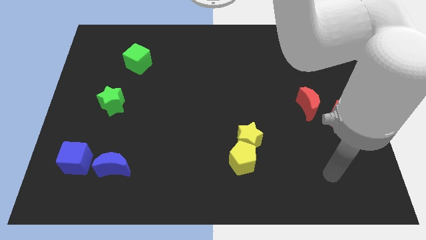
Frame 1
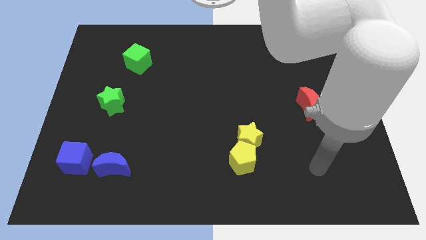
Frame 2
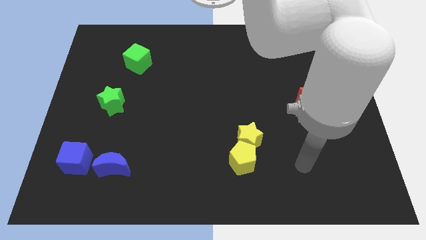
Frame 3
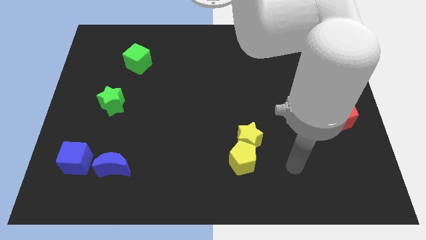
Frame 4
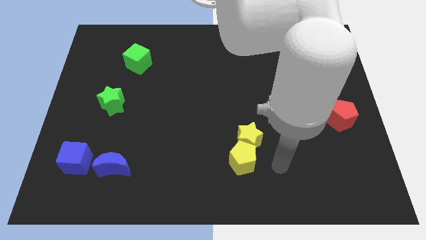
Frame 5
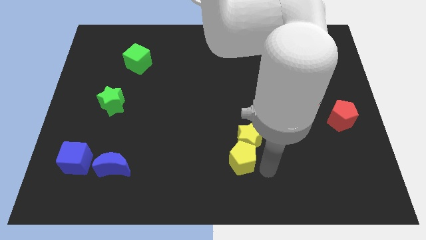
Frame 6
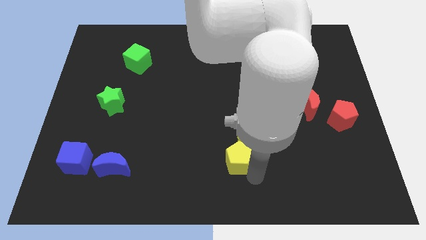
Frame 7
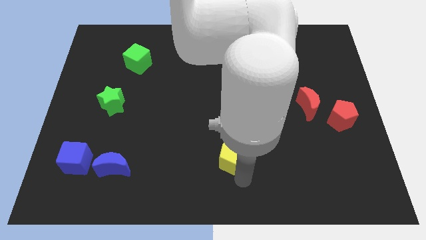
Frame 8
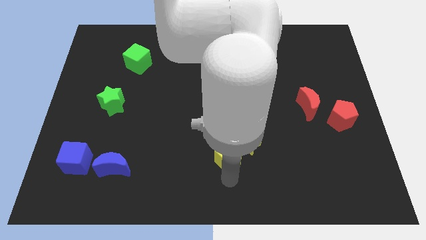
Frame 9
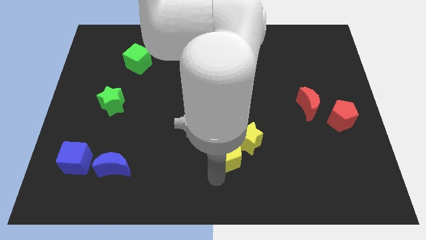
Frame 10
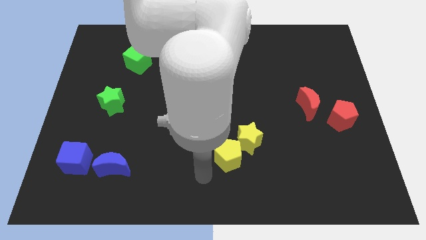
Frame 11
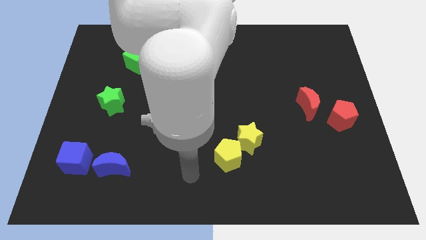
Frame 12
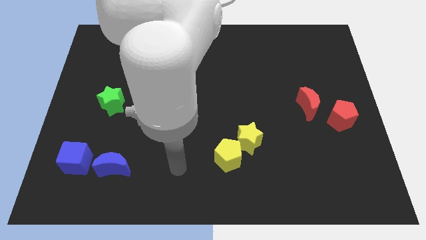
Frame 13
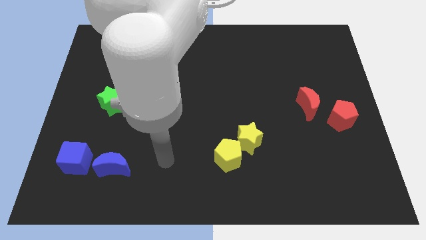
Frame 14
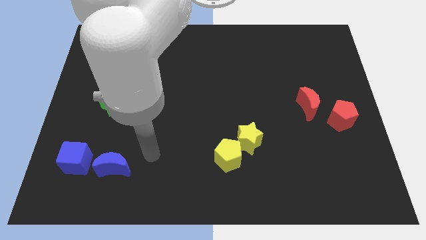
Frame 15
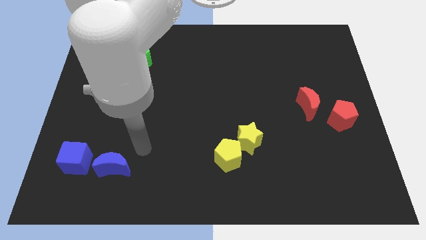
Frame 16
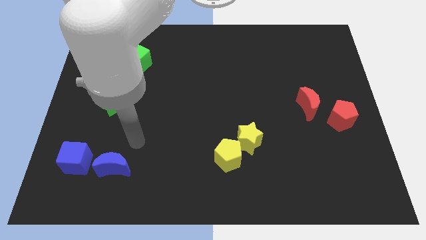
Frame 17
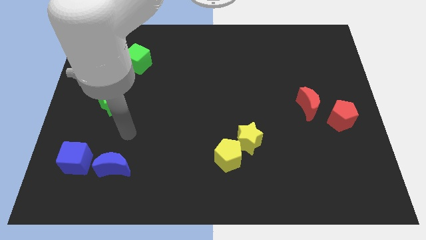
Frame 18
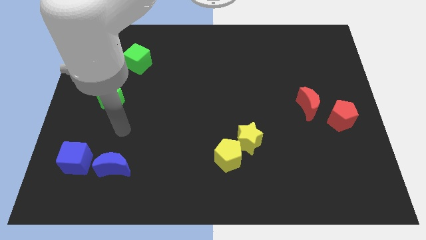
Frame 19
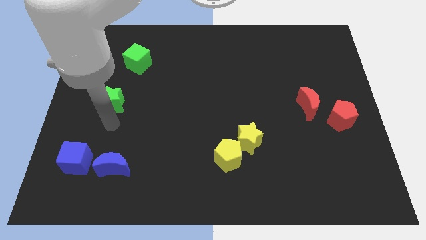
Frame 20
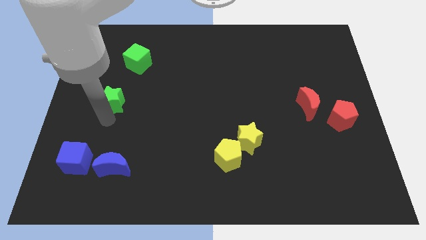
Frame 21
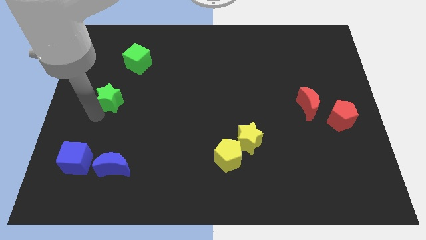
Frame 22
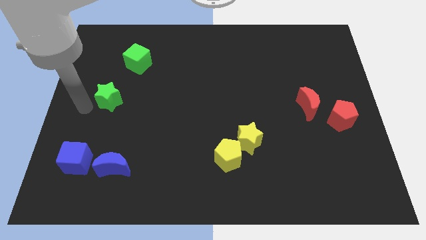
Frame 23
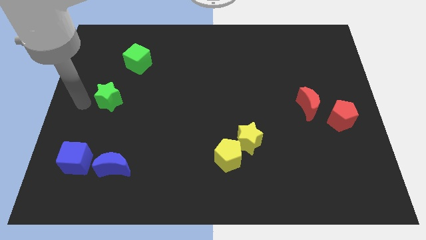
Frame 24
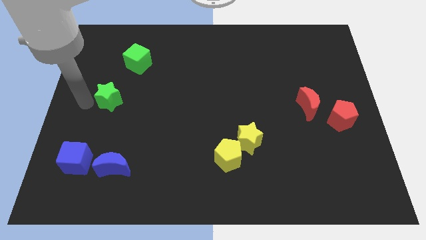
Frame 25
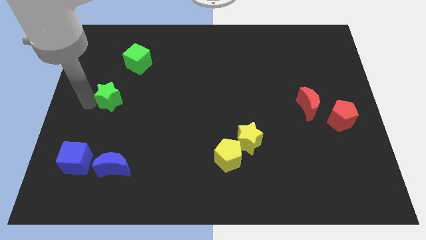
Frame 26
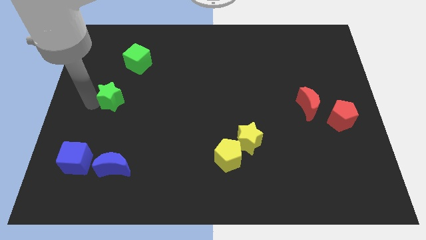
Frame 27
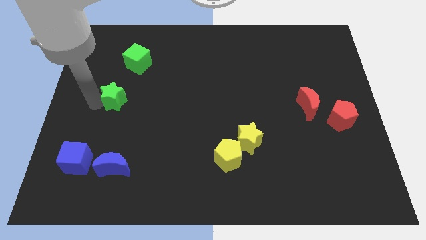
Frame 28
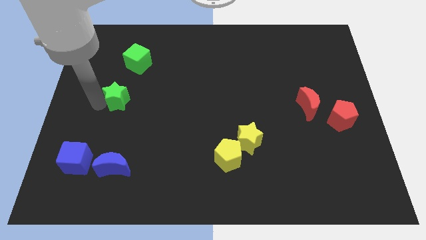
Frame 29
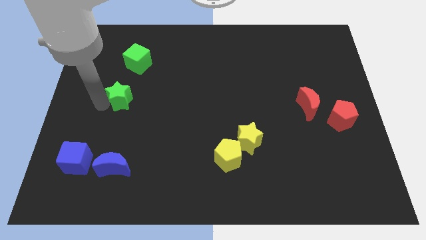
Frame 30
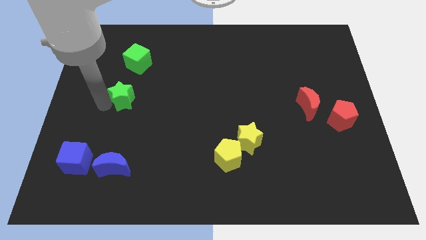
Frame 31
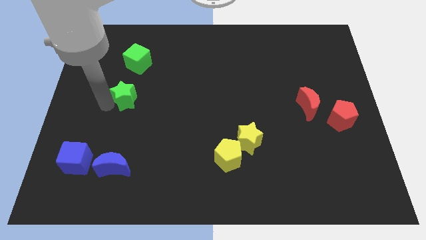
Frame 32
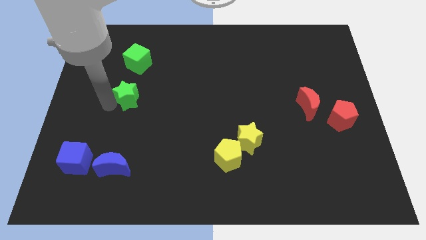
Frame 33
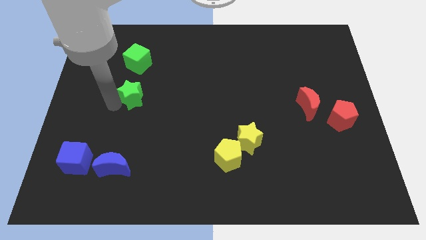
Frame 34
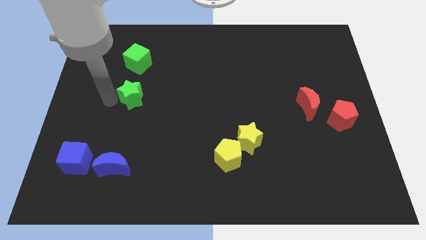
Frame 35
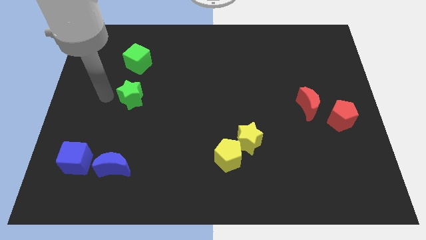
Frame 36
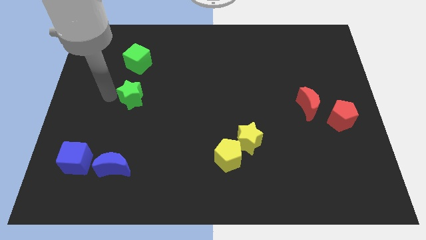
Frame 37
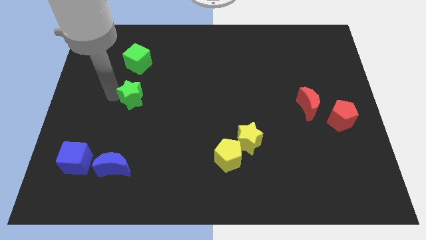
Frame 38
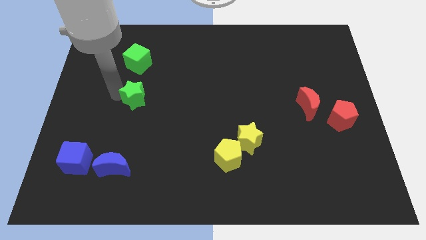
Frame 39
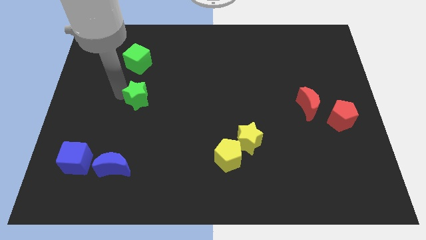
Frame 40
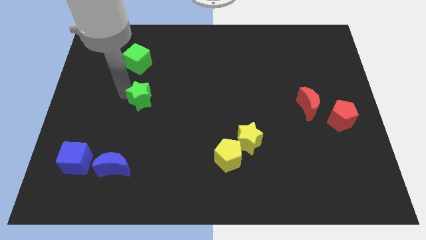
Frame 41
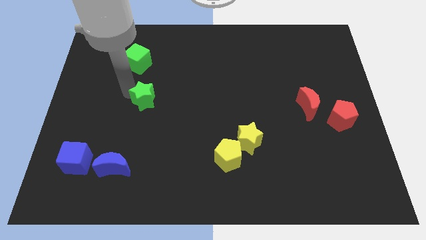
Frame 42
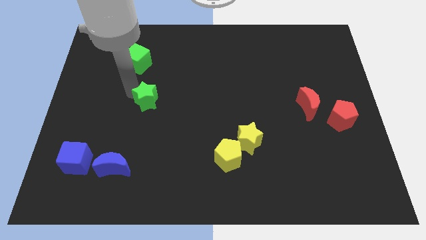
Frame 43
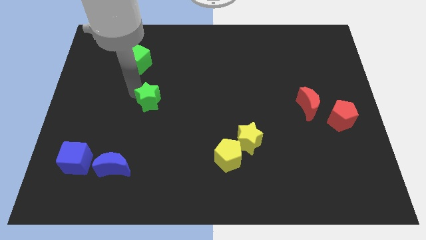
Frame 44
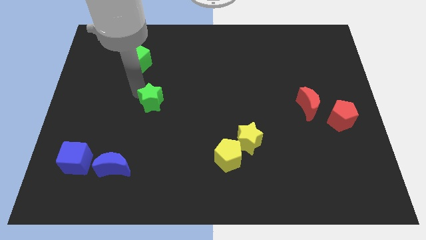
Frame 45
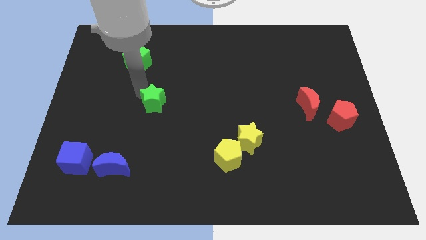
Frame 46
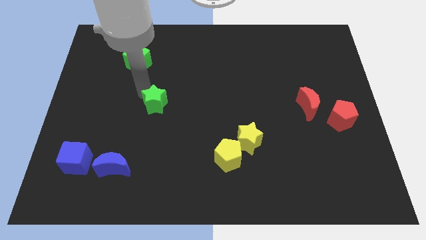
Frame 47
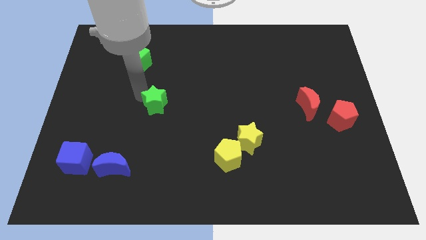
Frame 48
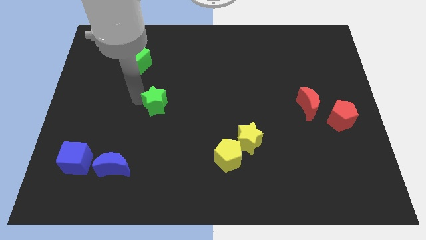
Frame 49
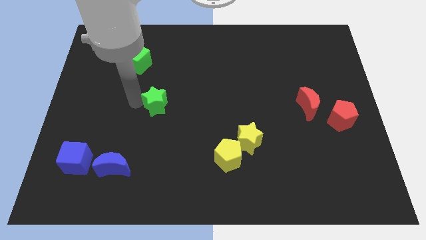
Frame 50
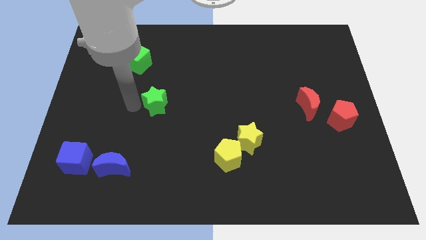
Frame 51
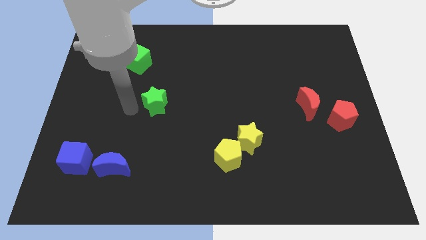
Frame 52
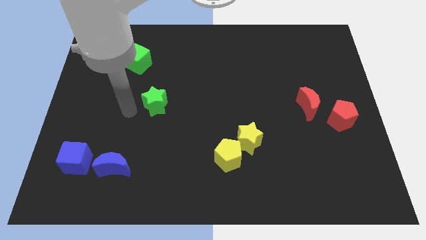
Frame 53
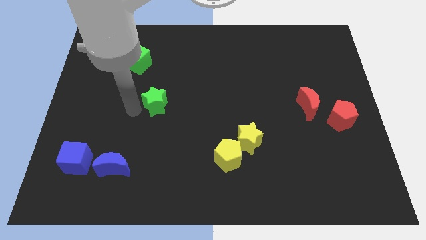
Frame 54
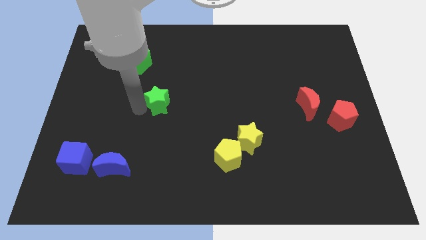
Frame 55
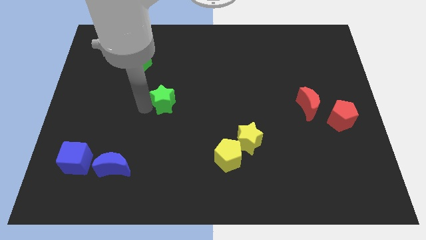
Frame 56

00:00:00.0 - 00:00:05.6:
slide the green star to the middle

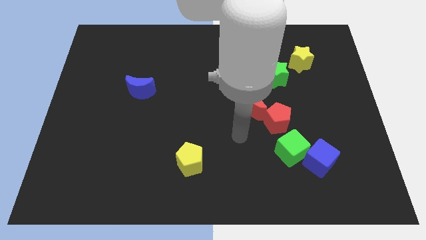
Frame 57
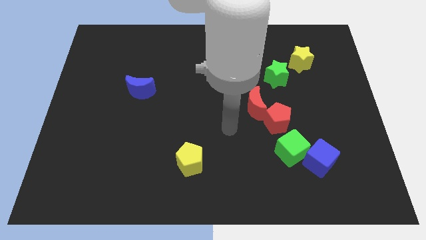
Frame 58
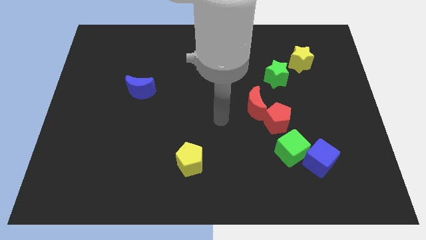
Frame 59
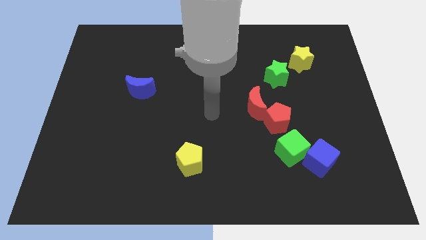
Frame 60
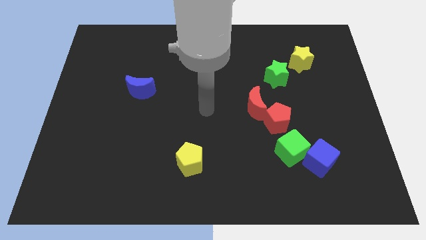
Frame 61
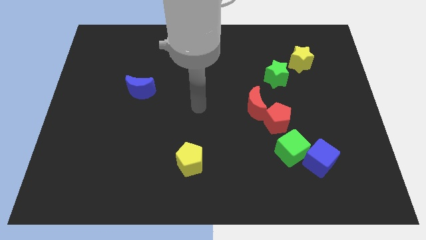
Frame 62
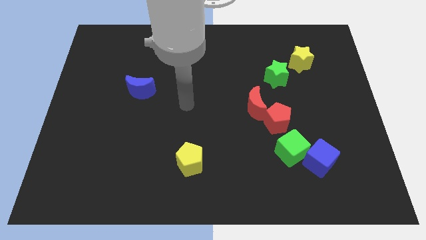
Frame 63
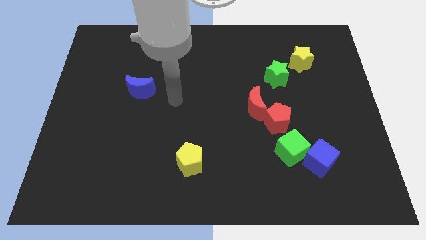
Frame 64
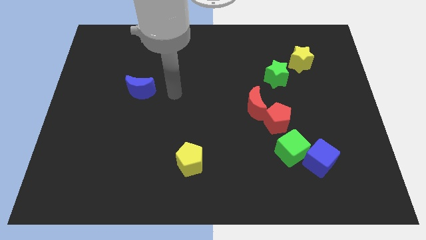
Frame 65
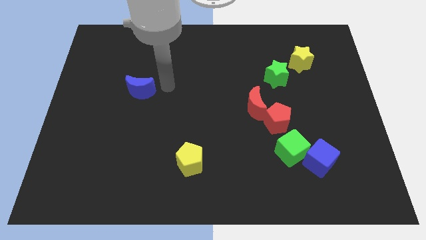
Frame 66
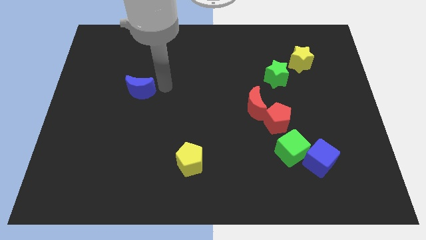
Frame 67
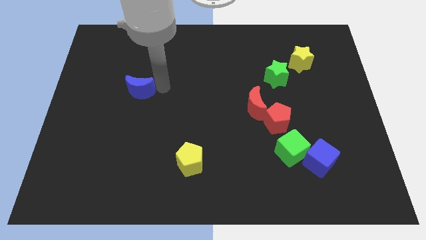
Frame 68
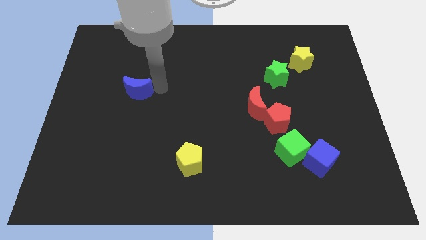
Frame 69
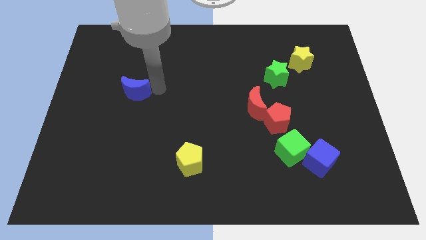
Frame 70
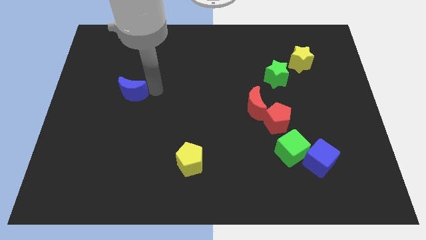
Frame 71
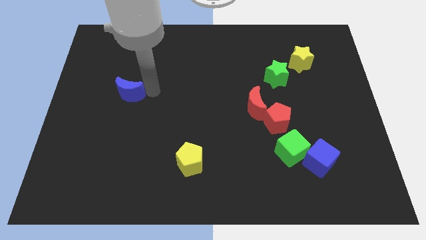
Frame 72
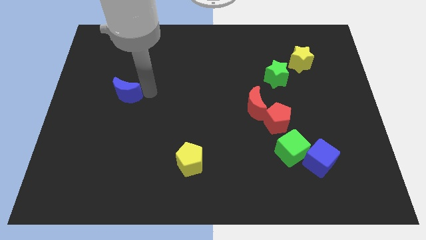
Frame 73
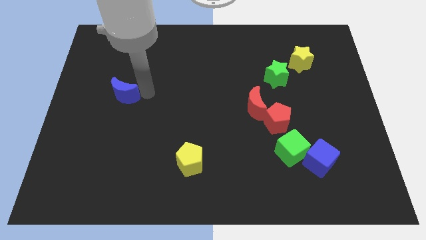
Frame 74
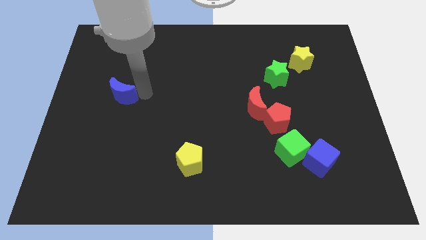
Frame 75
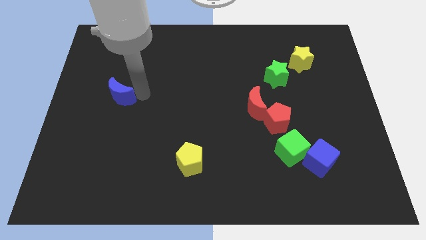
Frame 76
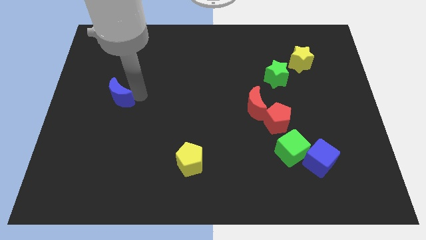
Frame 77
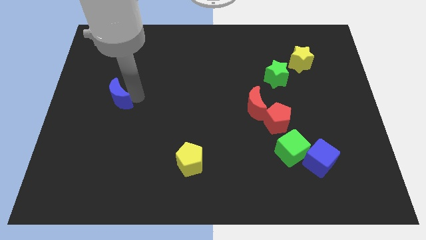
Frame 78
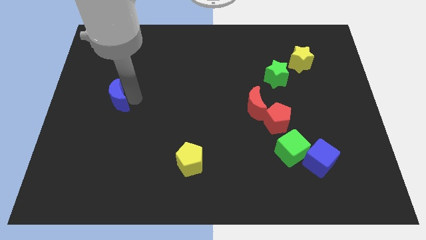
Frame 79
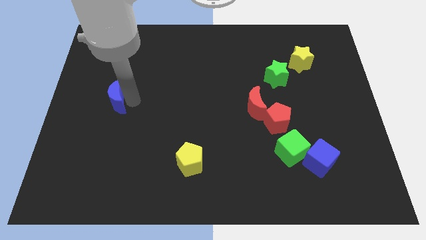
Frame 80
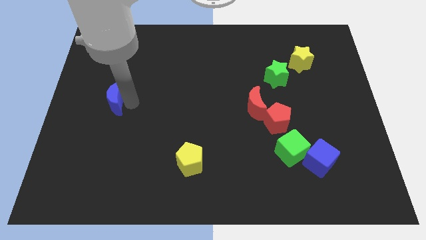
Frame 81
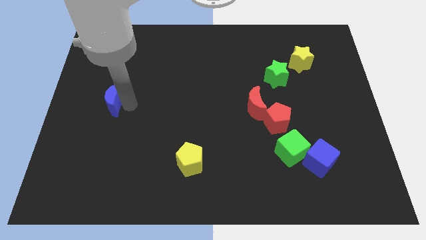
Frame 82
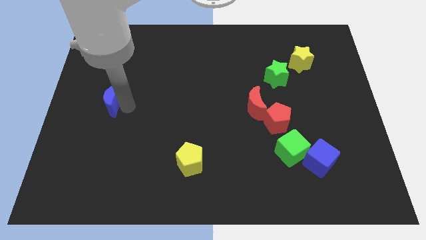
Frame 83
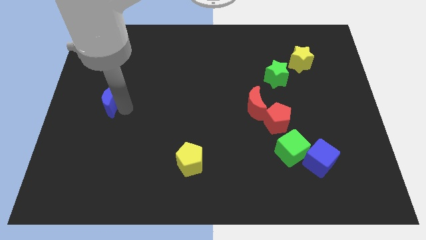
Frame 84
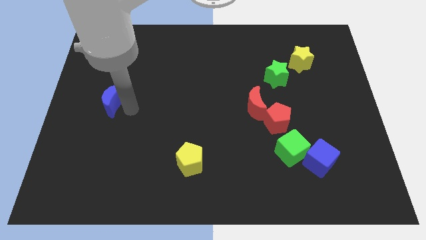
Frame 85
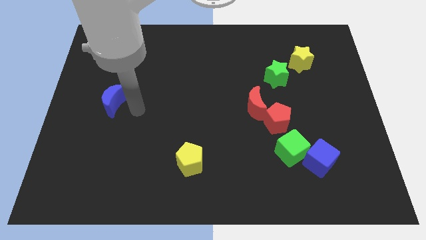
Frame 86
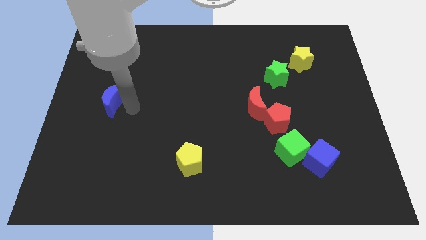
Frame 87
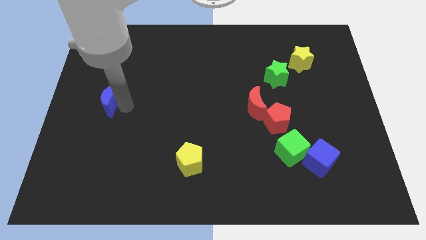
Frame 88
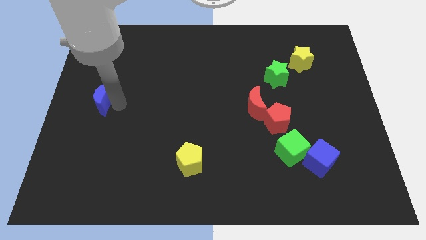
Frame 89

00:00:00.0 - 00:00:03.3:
move the blue moon to the left side of the board
